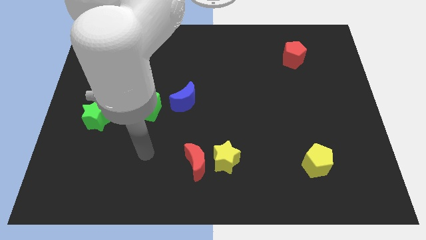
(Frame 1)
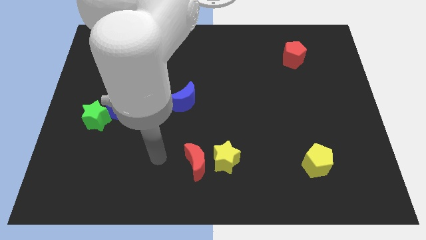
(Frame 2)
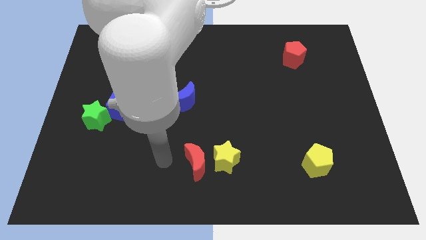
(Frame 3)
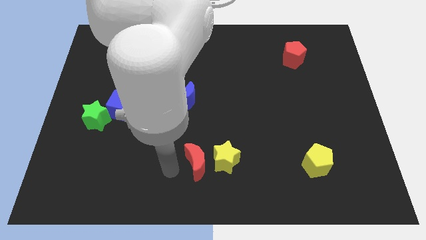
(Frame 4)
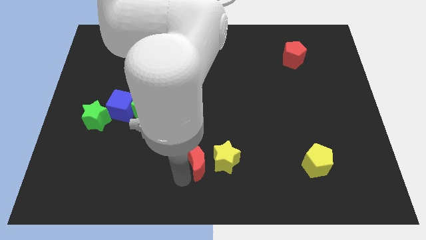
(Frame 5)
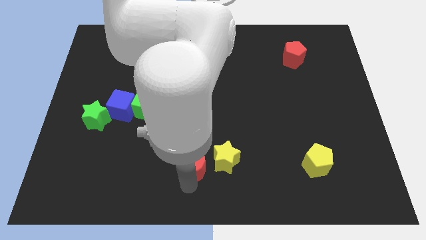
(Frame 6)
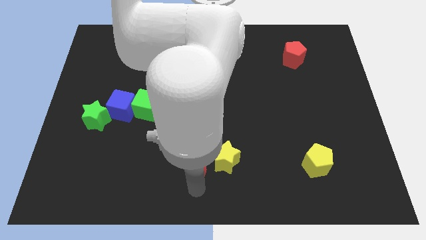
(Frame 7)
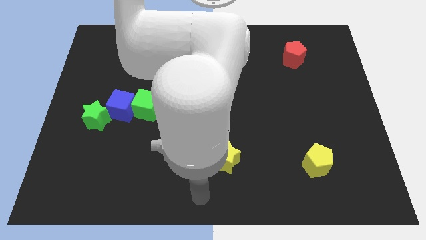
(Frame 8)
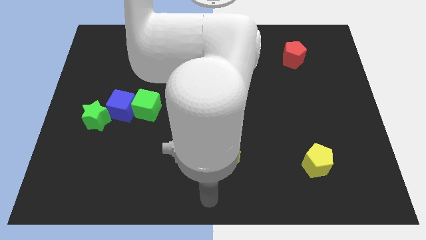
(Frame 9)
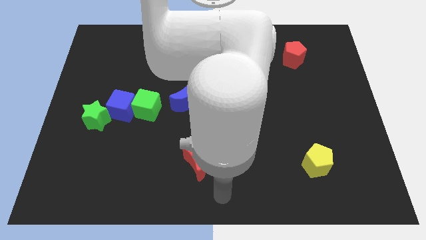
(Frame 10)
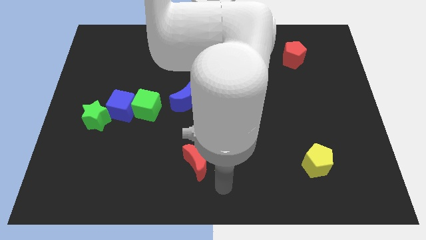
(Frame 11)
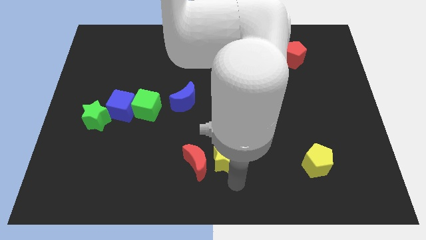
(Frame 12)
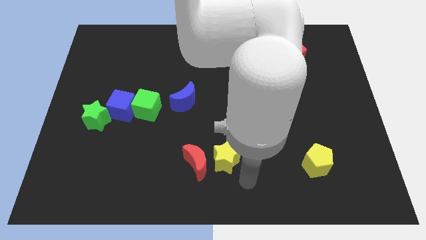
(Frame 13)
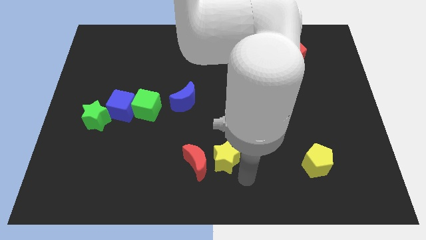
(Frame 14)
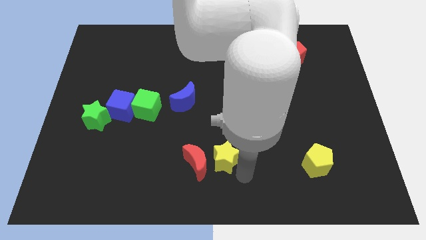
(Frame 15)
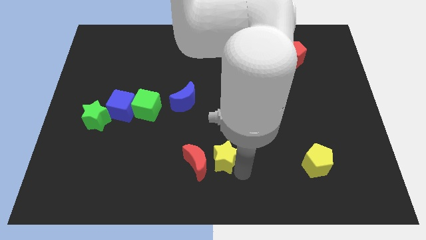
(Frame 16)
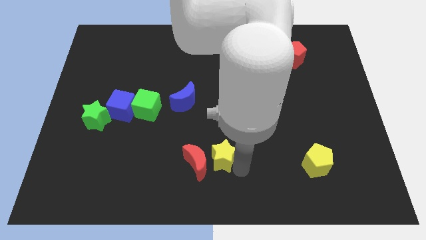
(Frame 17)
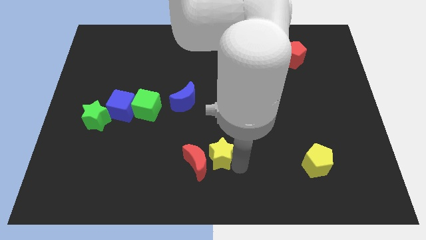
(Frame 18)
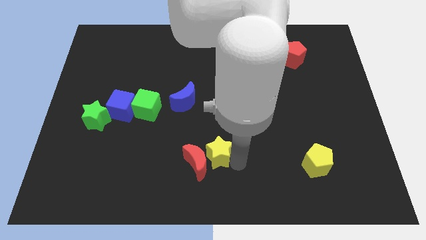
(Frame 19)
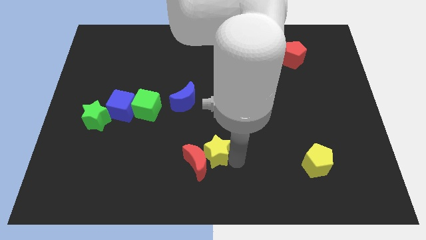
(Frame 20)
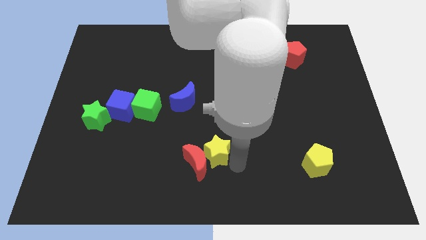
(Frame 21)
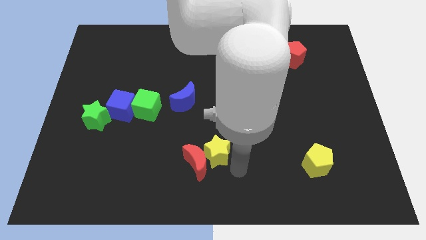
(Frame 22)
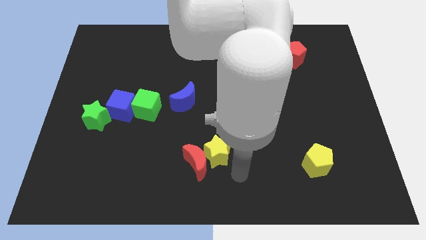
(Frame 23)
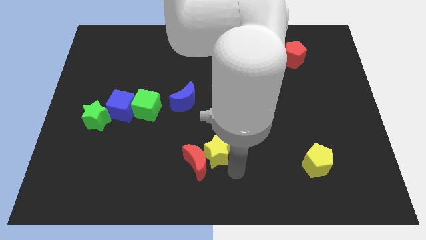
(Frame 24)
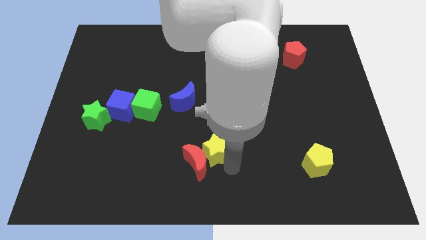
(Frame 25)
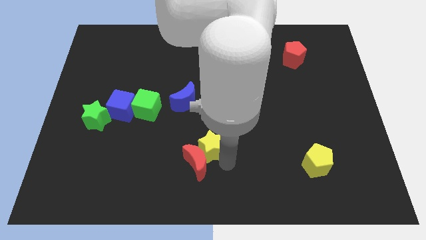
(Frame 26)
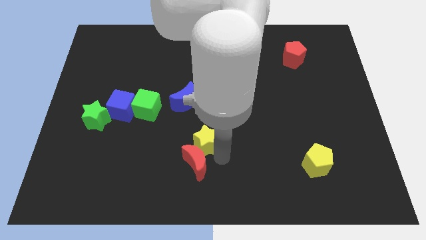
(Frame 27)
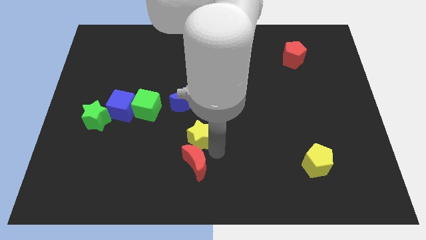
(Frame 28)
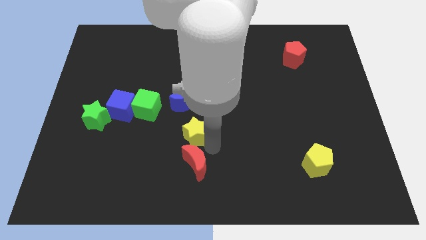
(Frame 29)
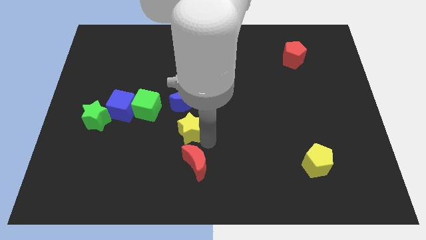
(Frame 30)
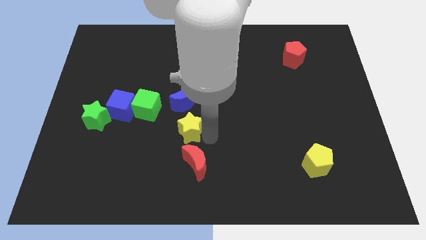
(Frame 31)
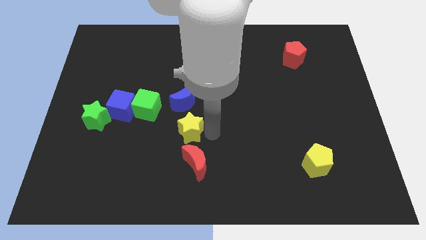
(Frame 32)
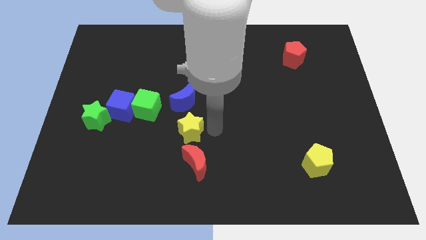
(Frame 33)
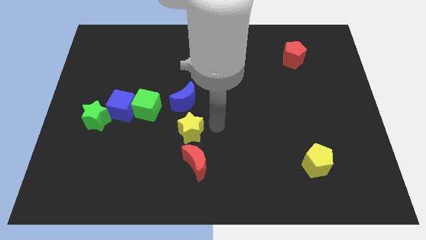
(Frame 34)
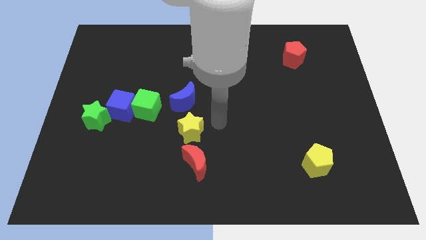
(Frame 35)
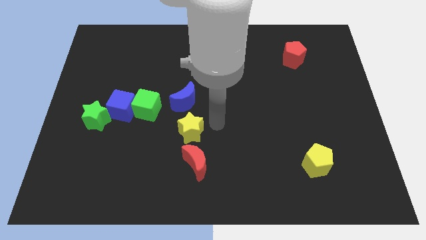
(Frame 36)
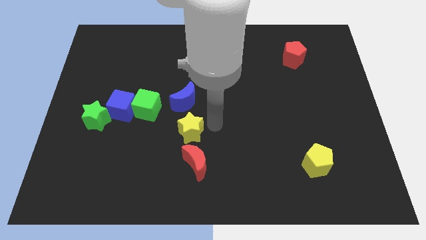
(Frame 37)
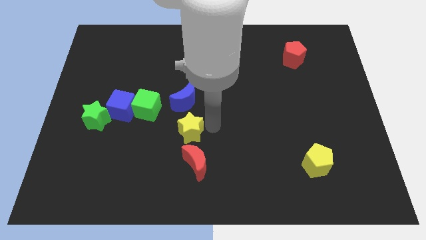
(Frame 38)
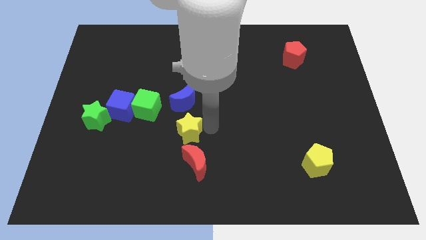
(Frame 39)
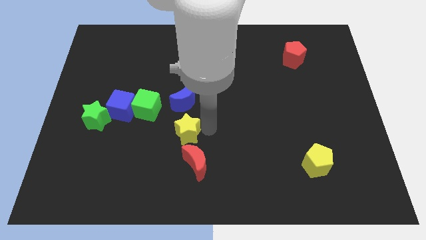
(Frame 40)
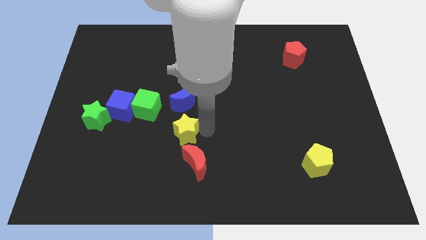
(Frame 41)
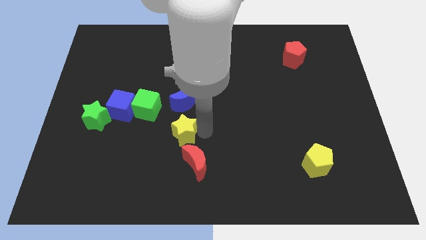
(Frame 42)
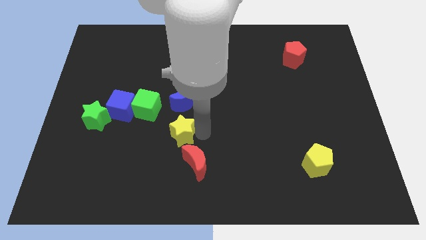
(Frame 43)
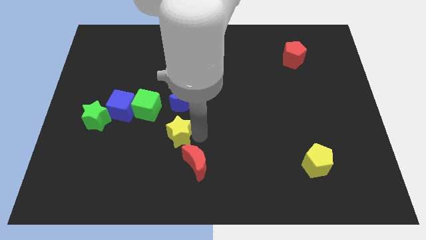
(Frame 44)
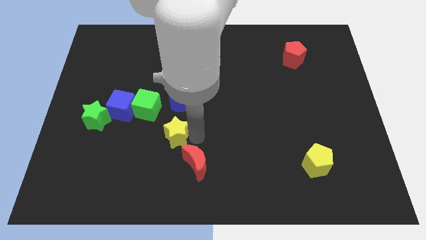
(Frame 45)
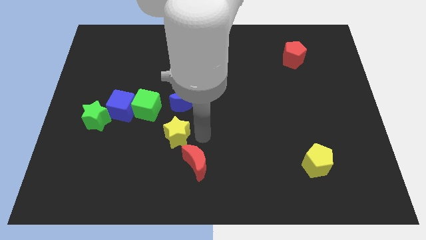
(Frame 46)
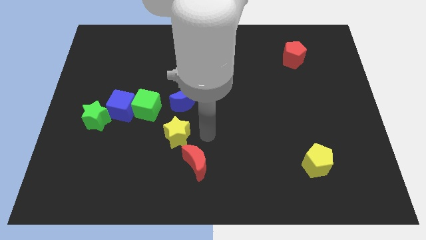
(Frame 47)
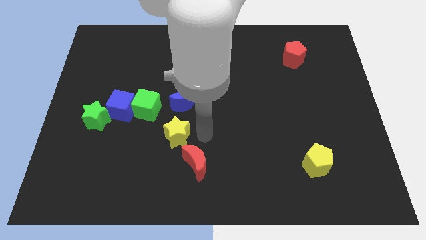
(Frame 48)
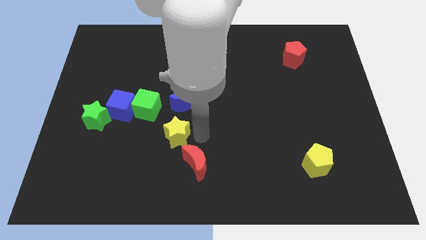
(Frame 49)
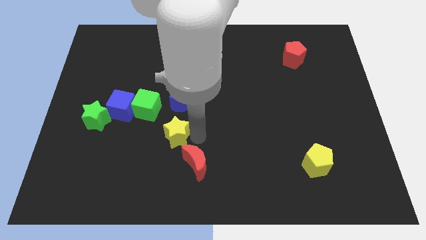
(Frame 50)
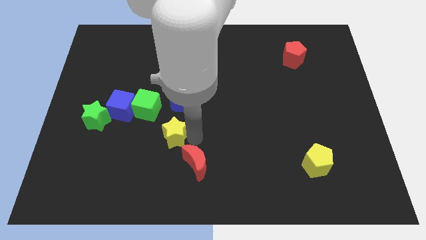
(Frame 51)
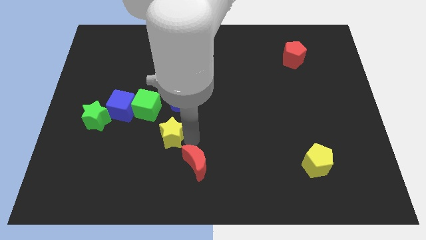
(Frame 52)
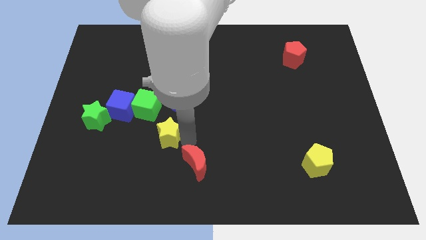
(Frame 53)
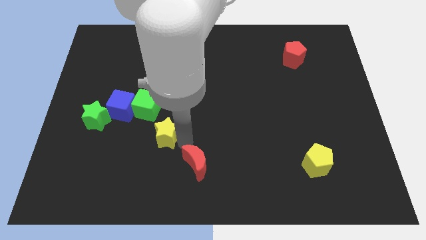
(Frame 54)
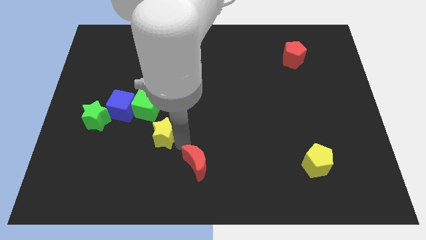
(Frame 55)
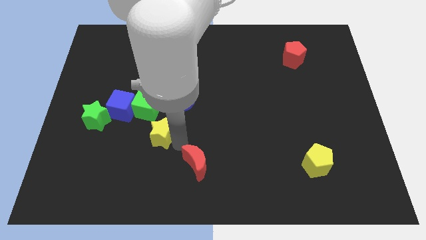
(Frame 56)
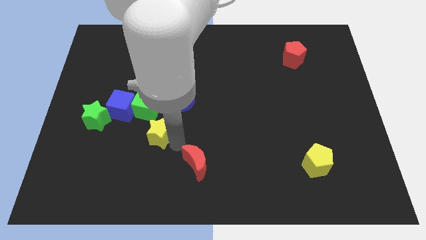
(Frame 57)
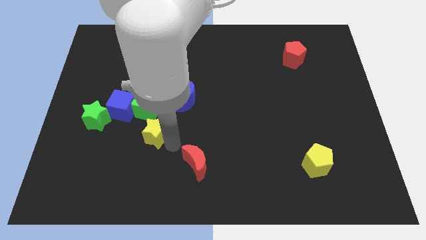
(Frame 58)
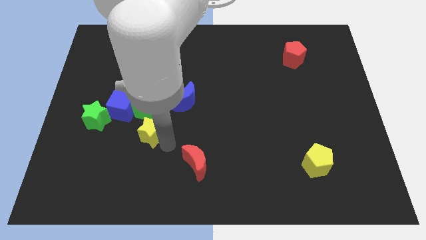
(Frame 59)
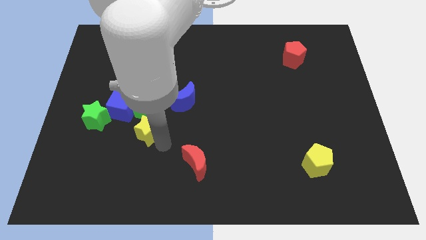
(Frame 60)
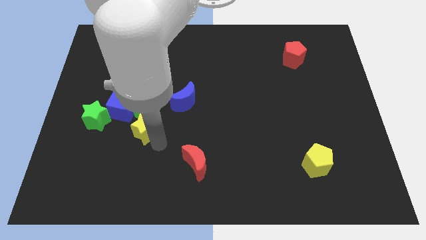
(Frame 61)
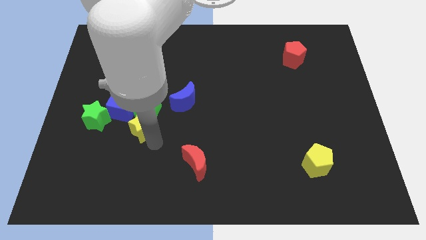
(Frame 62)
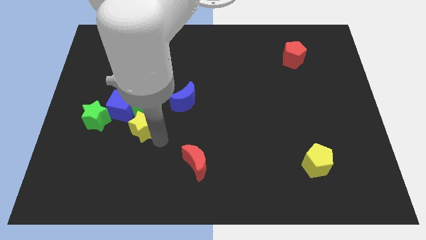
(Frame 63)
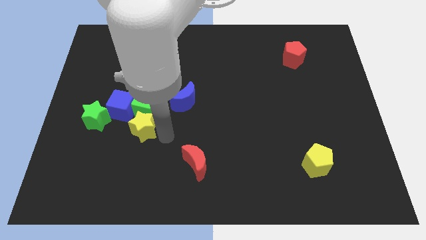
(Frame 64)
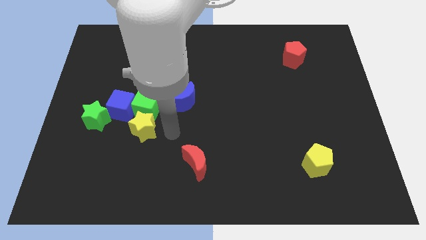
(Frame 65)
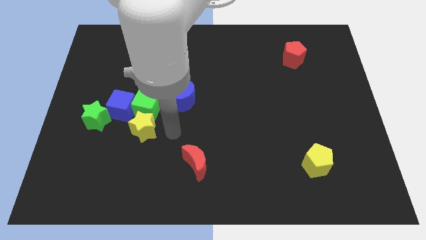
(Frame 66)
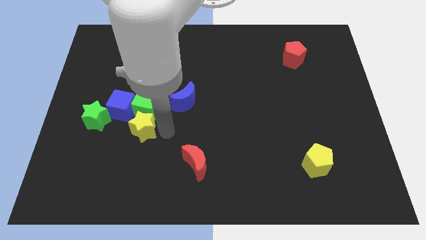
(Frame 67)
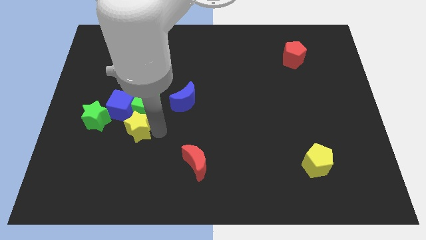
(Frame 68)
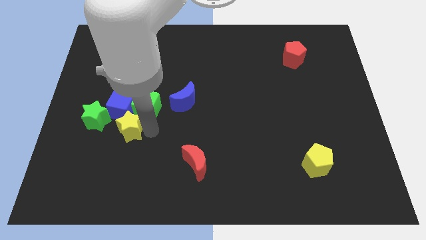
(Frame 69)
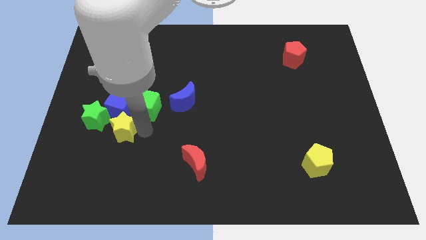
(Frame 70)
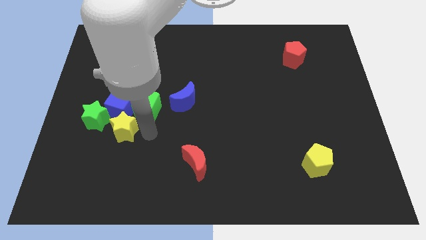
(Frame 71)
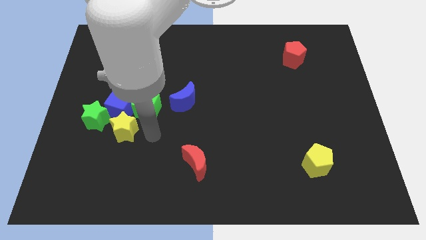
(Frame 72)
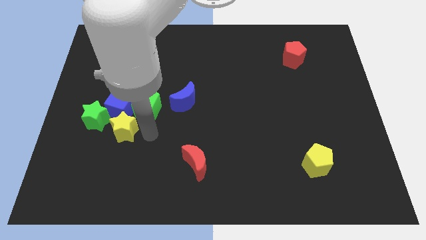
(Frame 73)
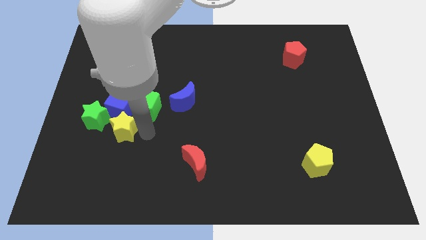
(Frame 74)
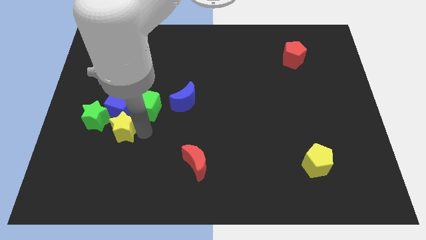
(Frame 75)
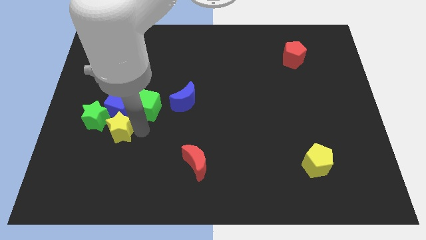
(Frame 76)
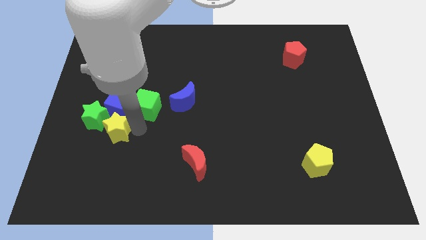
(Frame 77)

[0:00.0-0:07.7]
slide the yellow star to the bottom left of the blue cube
